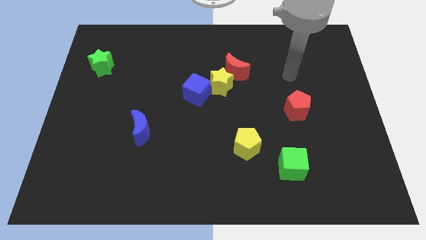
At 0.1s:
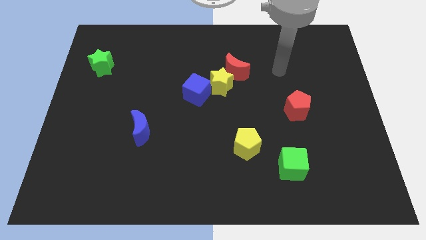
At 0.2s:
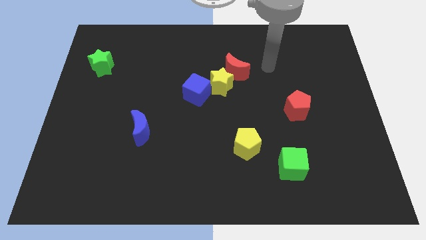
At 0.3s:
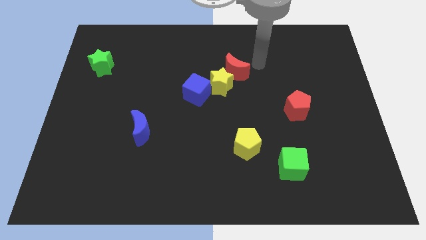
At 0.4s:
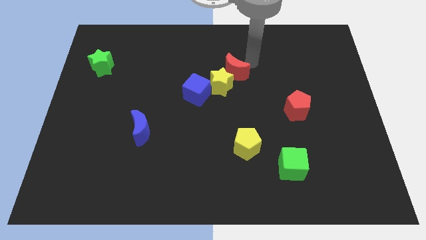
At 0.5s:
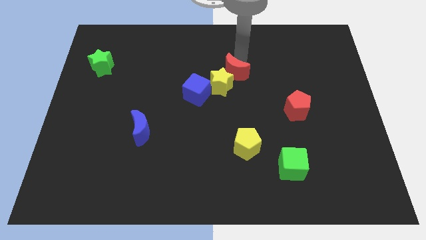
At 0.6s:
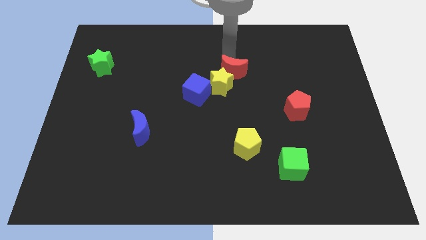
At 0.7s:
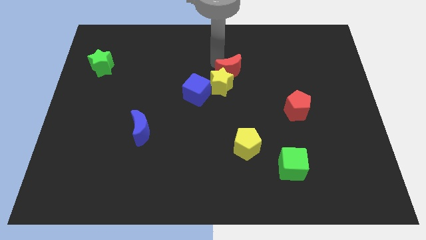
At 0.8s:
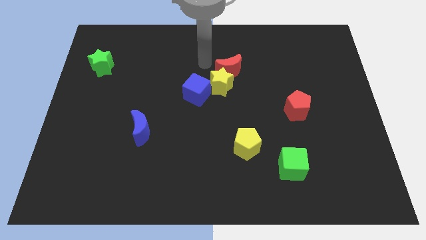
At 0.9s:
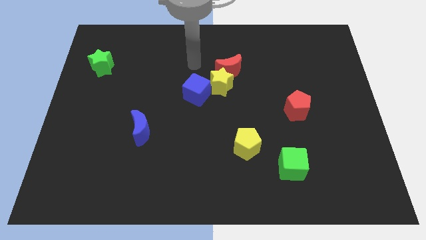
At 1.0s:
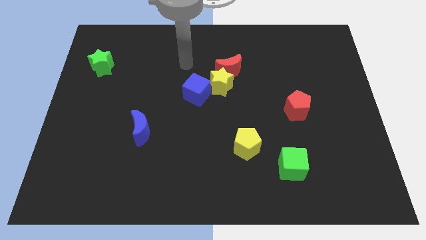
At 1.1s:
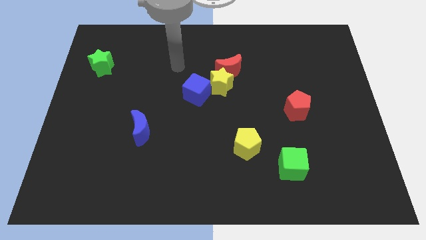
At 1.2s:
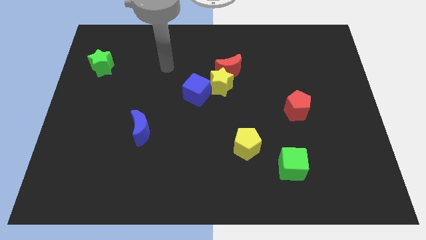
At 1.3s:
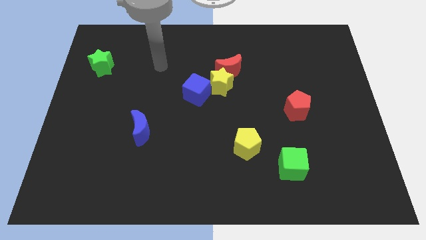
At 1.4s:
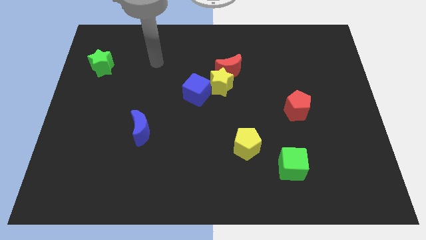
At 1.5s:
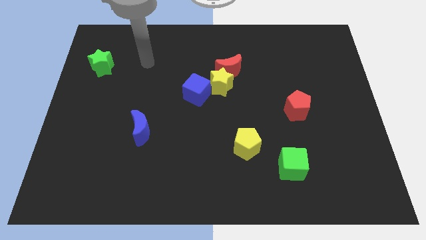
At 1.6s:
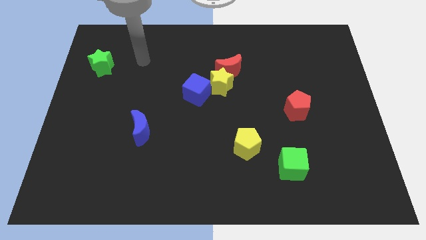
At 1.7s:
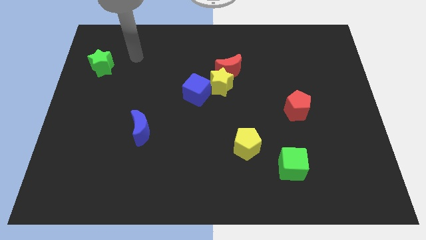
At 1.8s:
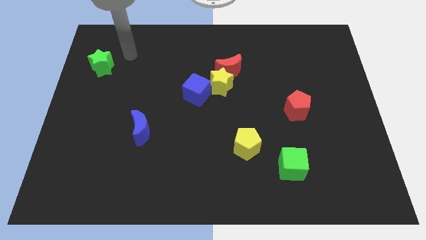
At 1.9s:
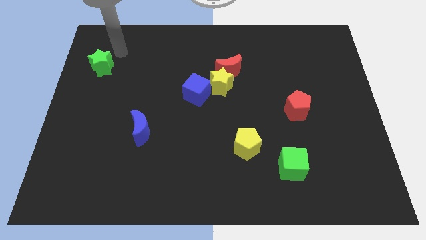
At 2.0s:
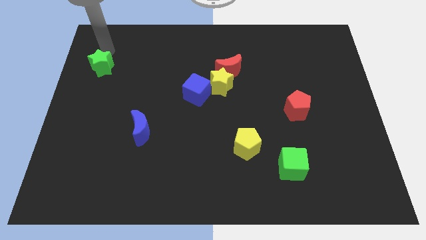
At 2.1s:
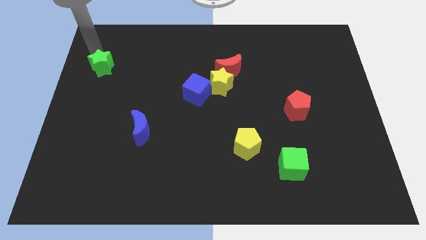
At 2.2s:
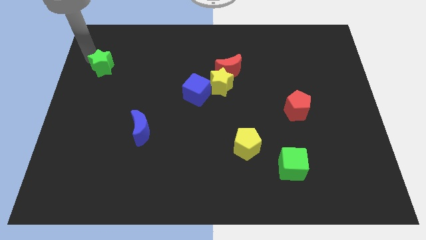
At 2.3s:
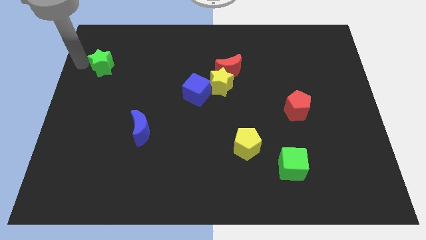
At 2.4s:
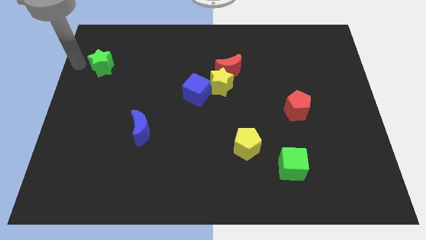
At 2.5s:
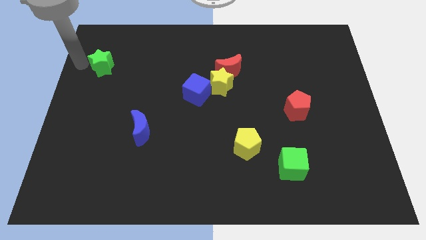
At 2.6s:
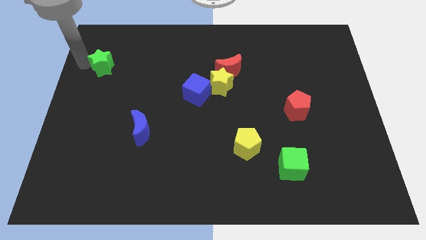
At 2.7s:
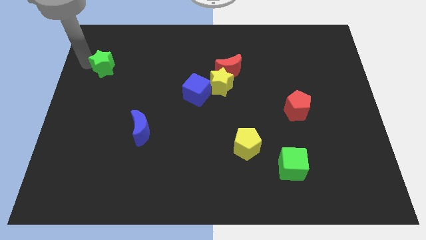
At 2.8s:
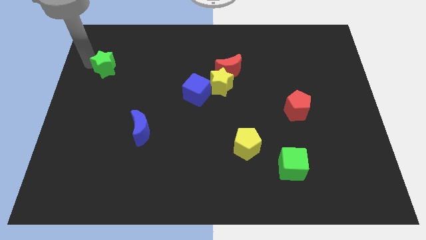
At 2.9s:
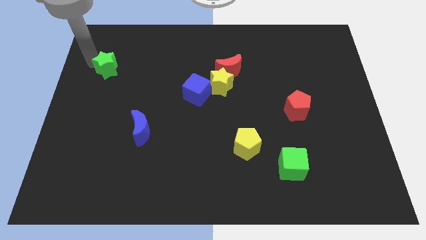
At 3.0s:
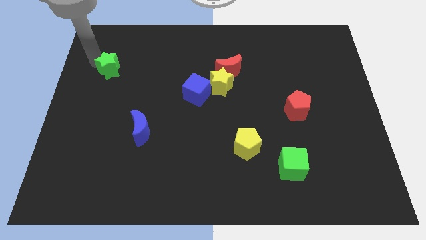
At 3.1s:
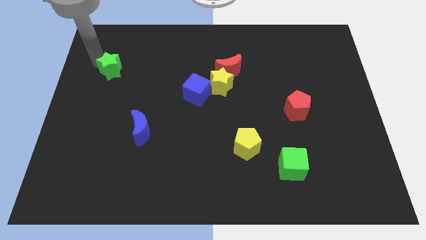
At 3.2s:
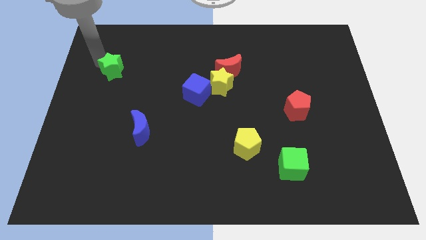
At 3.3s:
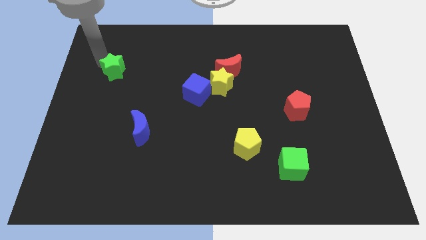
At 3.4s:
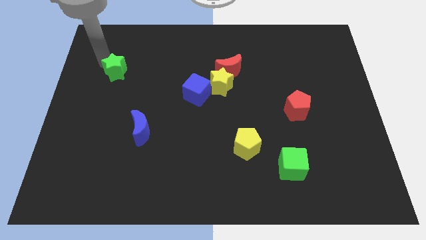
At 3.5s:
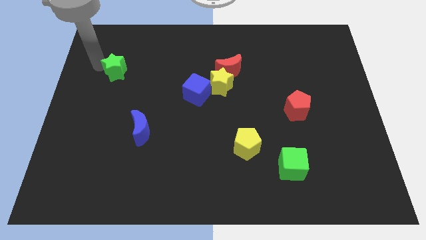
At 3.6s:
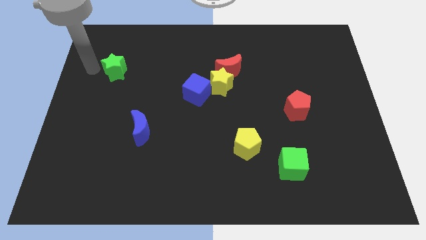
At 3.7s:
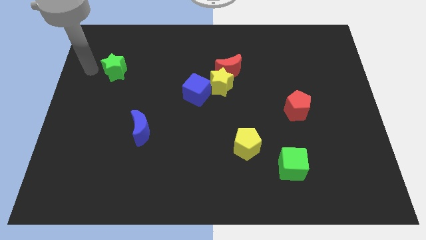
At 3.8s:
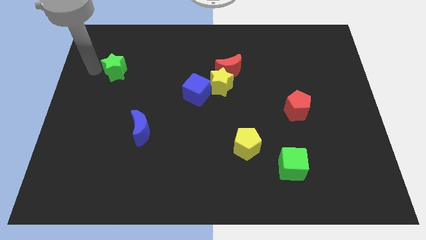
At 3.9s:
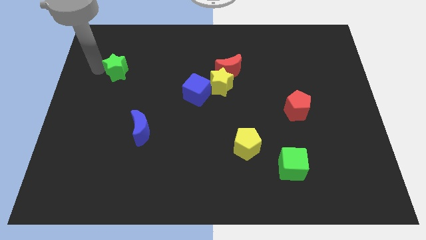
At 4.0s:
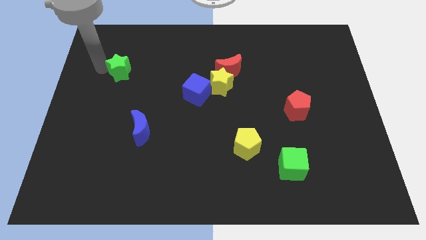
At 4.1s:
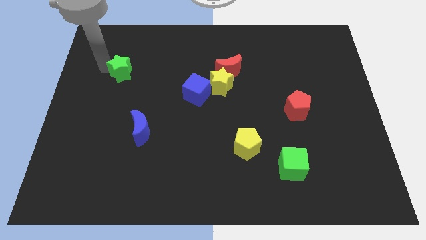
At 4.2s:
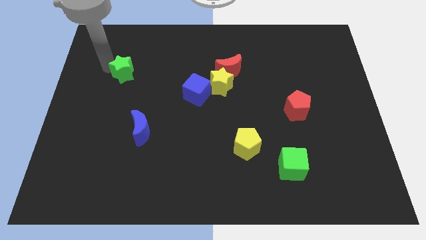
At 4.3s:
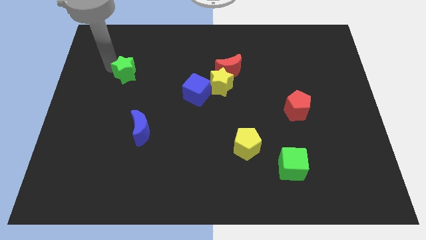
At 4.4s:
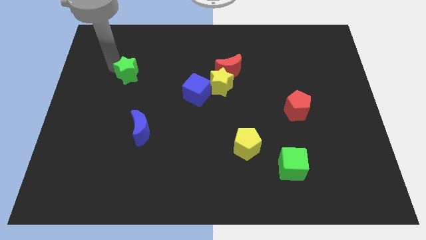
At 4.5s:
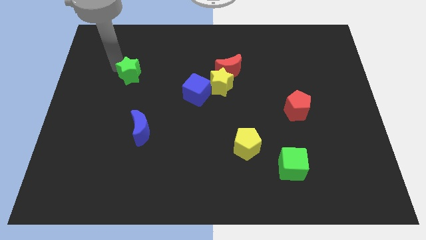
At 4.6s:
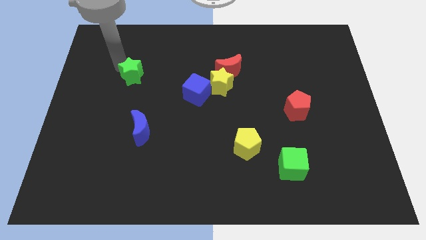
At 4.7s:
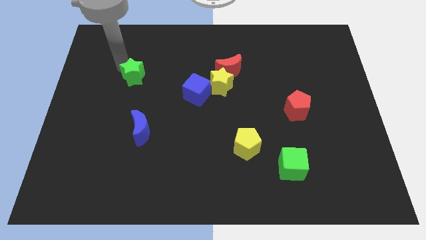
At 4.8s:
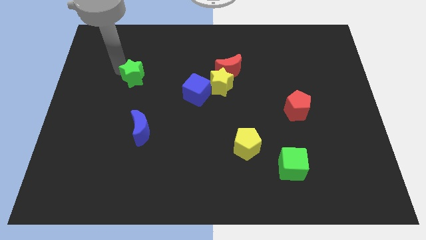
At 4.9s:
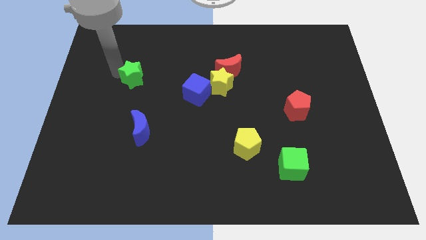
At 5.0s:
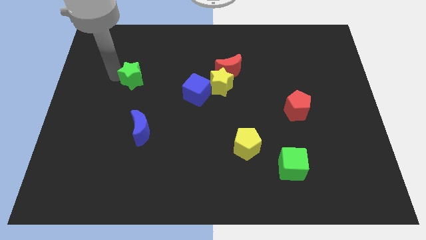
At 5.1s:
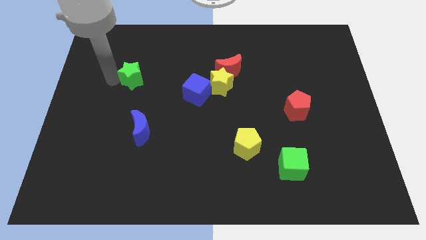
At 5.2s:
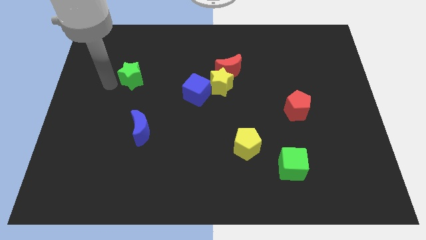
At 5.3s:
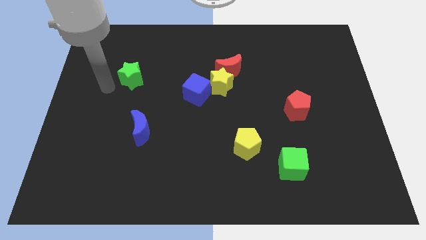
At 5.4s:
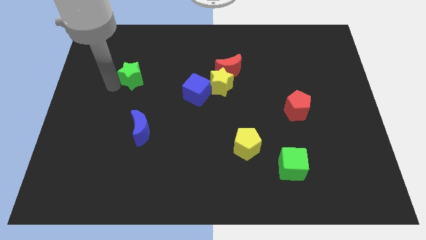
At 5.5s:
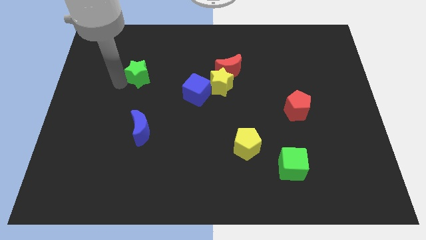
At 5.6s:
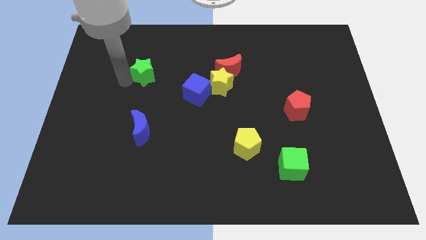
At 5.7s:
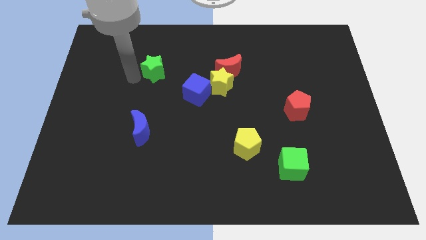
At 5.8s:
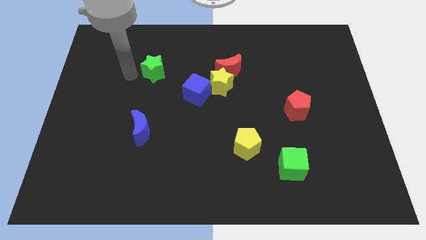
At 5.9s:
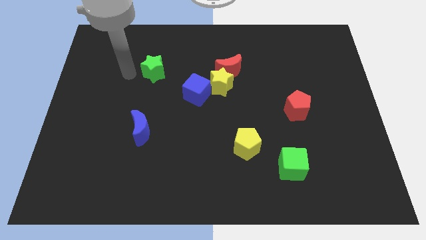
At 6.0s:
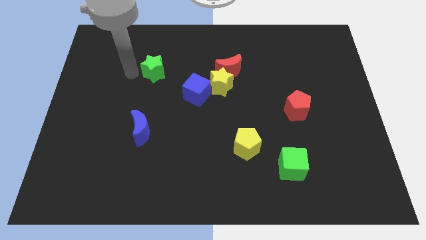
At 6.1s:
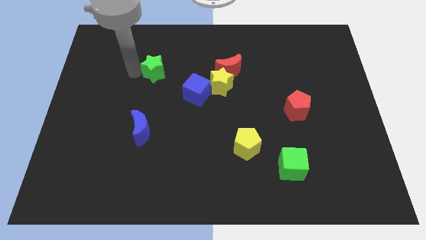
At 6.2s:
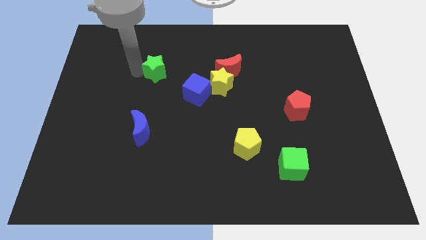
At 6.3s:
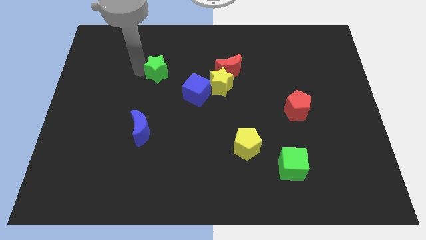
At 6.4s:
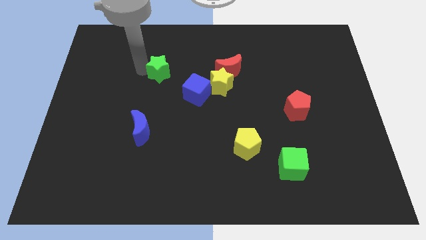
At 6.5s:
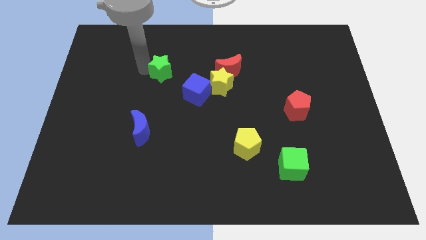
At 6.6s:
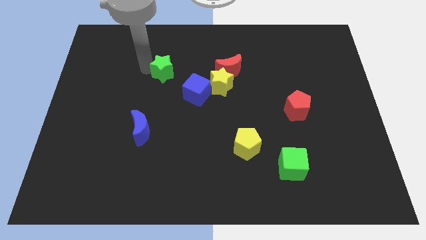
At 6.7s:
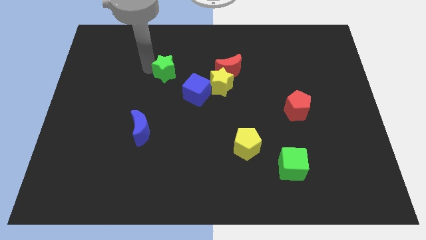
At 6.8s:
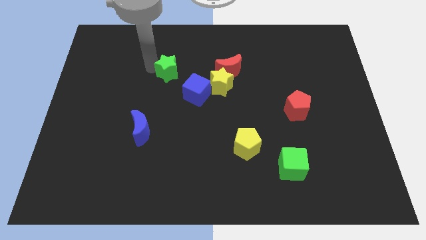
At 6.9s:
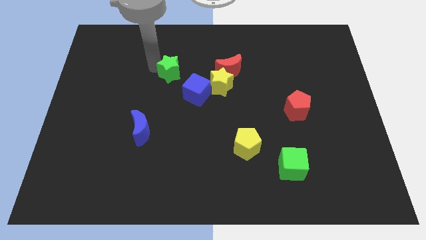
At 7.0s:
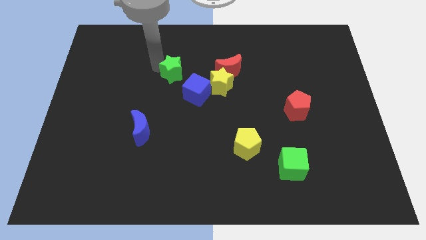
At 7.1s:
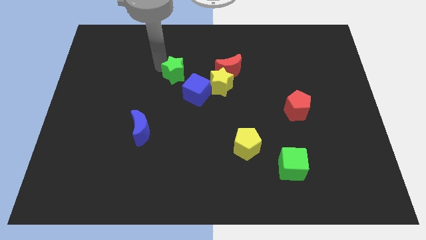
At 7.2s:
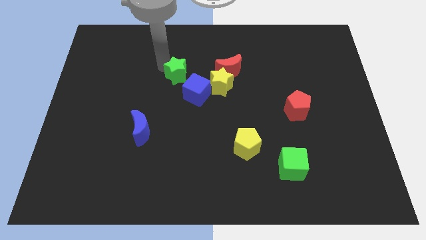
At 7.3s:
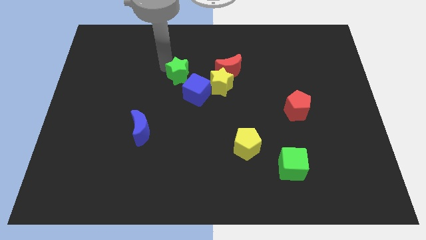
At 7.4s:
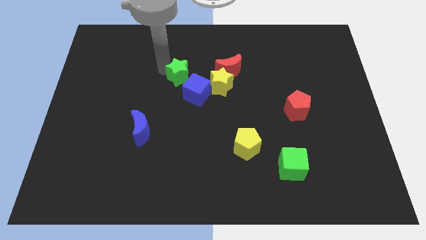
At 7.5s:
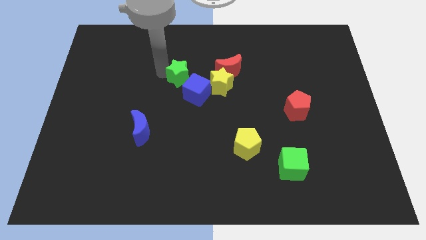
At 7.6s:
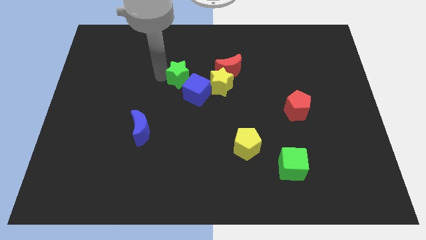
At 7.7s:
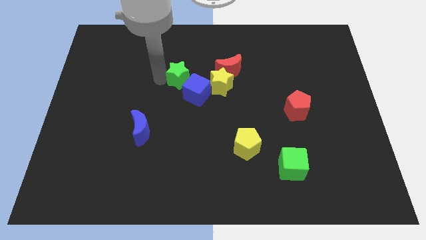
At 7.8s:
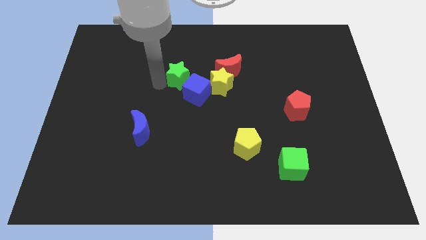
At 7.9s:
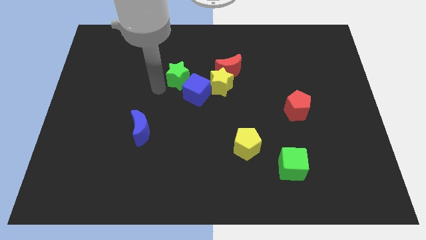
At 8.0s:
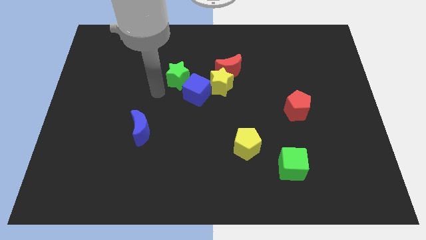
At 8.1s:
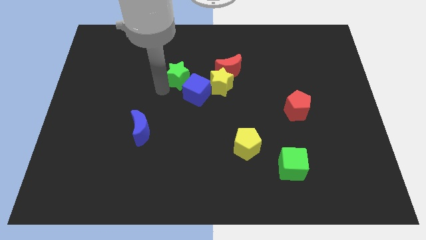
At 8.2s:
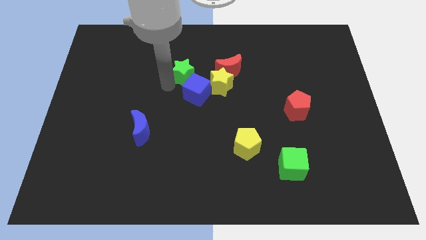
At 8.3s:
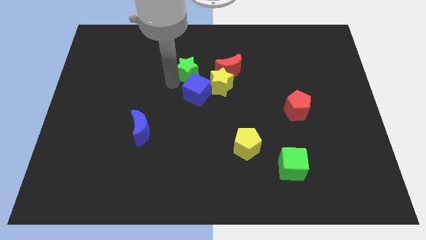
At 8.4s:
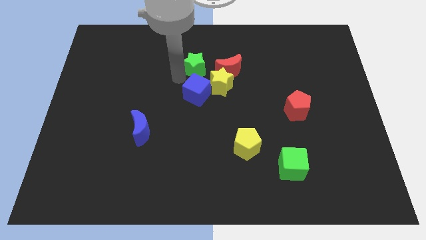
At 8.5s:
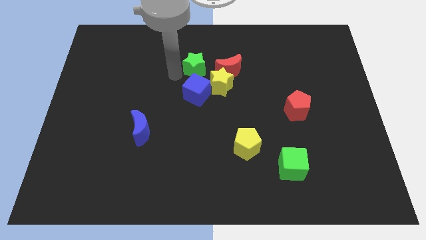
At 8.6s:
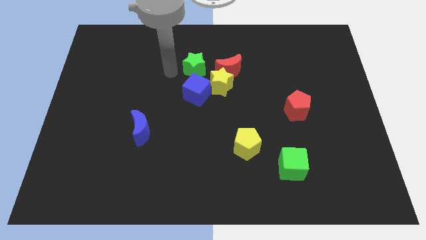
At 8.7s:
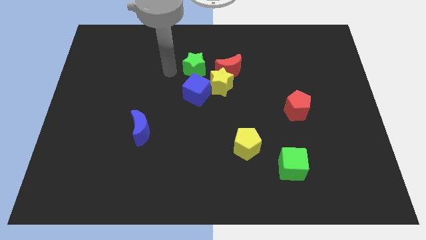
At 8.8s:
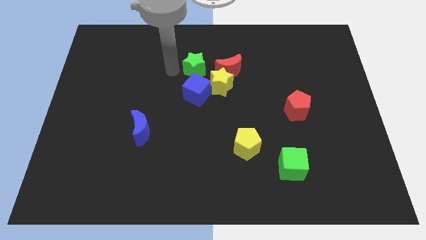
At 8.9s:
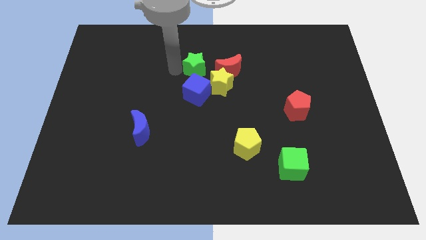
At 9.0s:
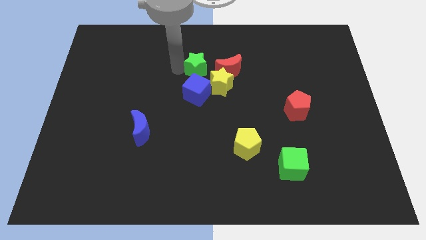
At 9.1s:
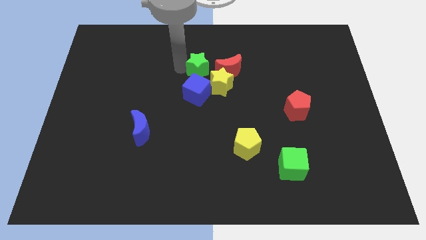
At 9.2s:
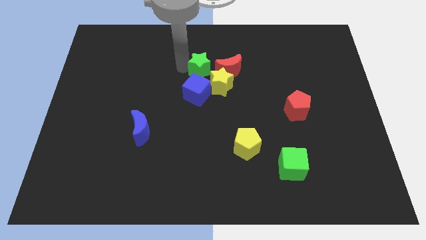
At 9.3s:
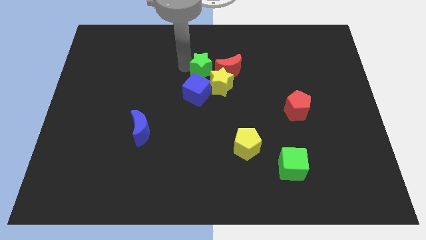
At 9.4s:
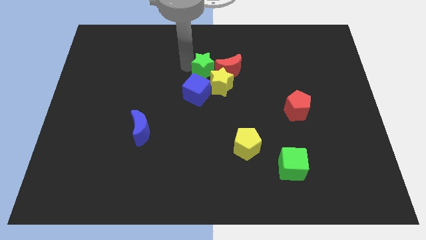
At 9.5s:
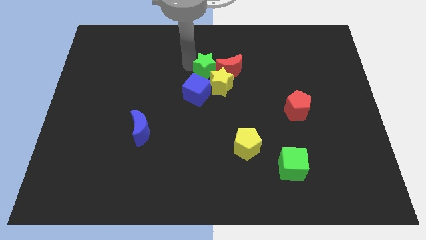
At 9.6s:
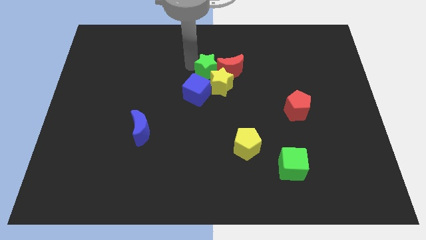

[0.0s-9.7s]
move the green star to the red moon
